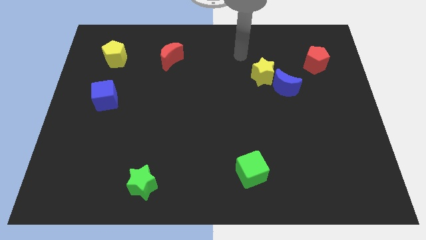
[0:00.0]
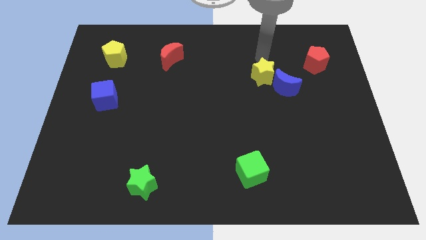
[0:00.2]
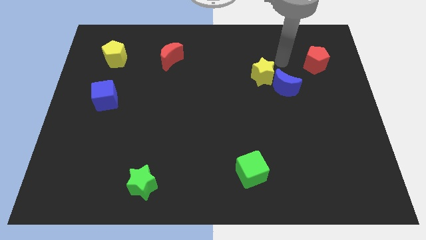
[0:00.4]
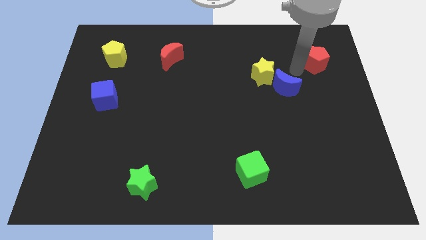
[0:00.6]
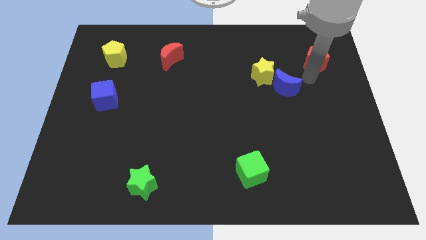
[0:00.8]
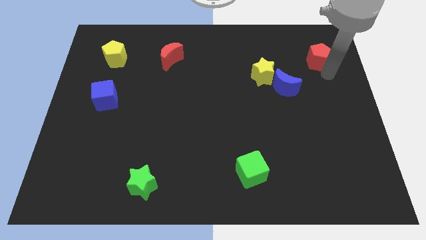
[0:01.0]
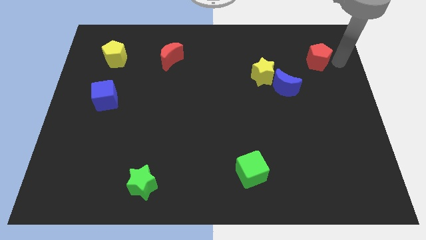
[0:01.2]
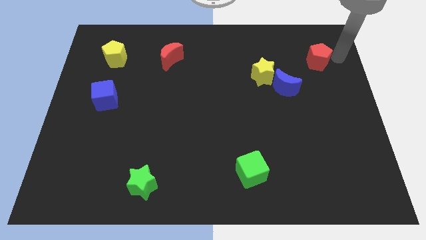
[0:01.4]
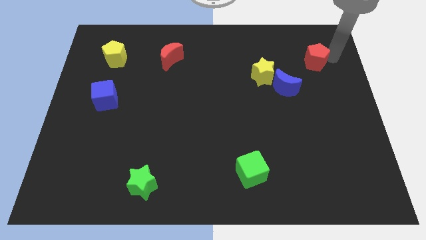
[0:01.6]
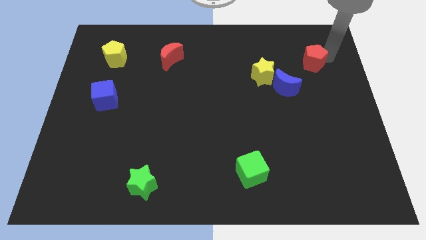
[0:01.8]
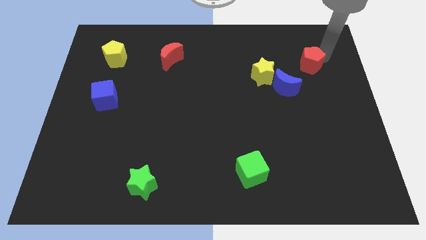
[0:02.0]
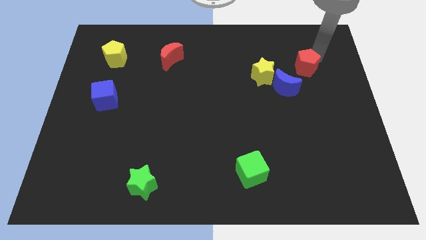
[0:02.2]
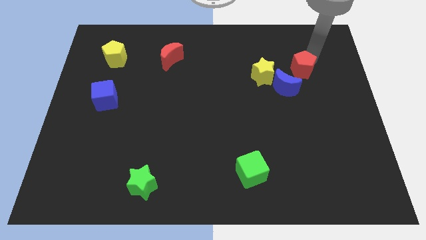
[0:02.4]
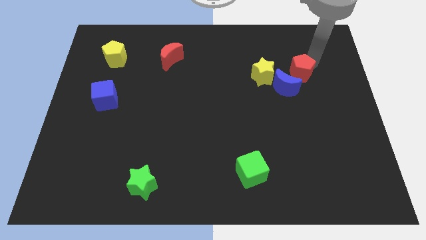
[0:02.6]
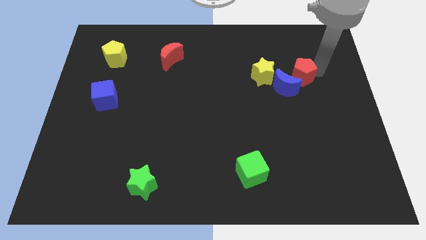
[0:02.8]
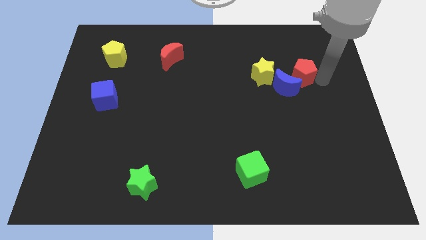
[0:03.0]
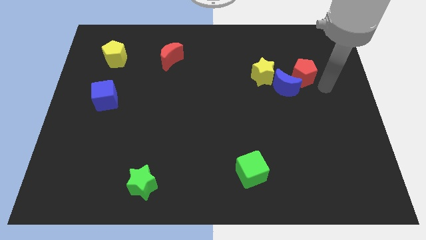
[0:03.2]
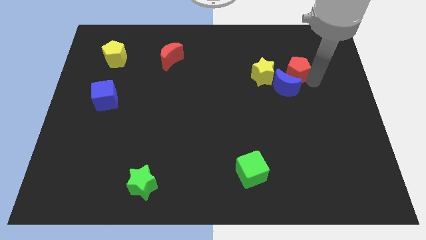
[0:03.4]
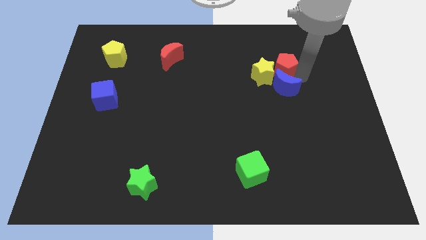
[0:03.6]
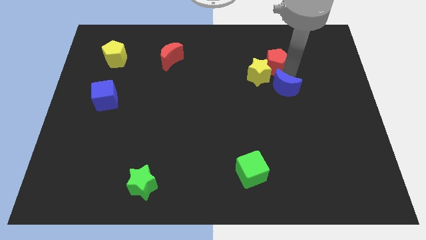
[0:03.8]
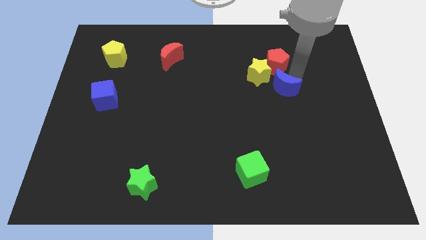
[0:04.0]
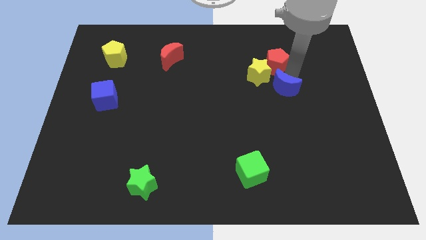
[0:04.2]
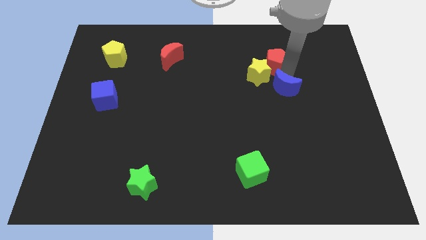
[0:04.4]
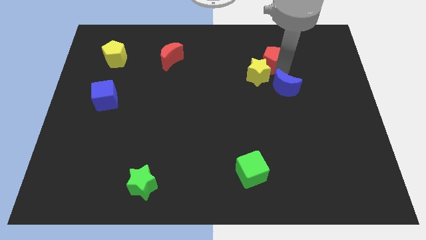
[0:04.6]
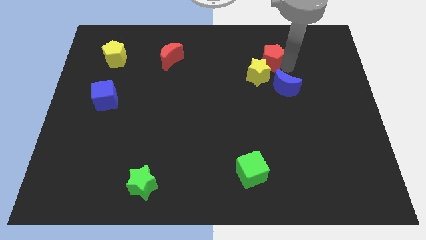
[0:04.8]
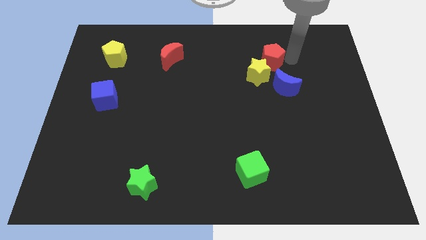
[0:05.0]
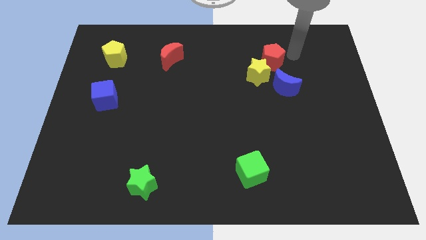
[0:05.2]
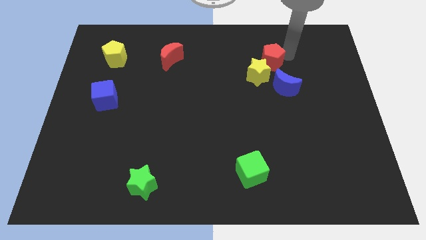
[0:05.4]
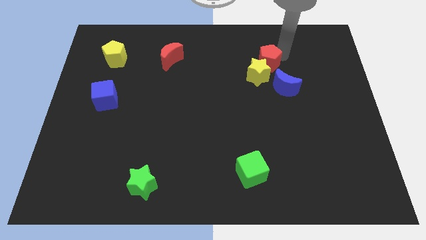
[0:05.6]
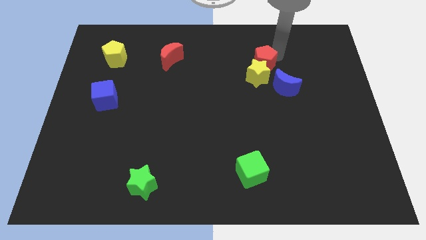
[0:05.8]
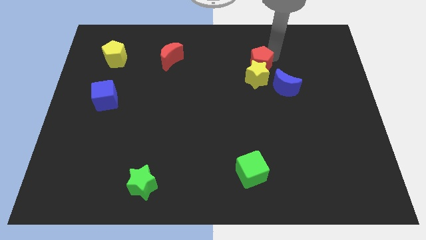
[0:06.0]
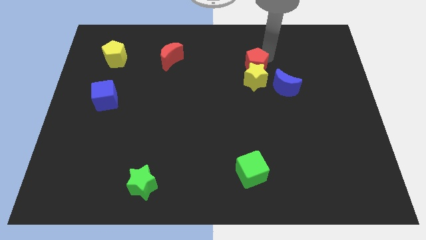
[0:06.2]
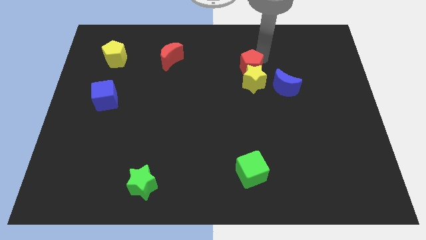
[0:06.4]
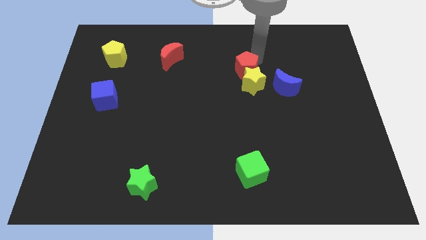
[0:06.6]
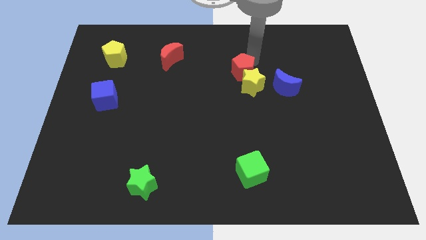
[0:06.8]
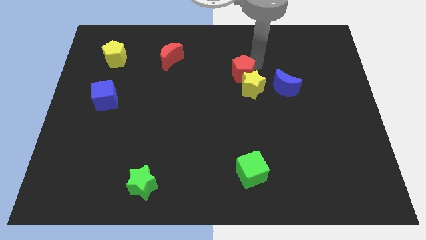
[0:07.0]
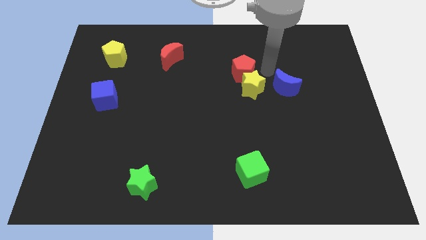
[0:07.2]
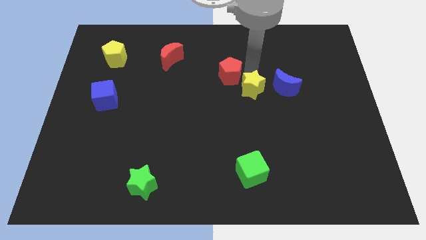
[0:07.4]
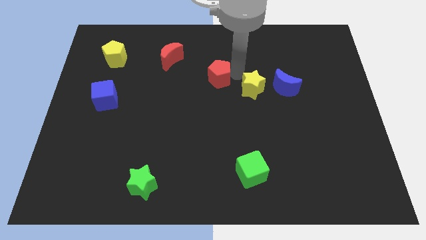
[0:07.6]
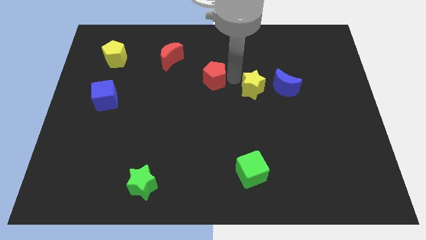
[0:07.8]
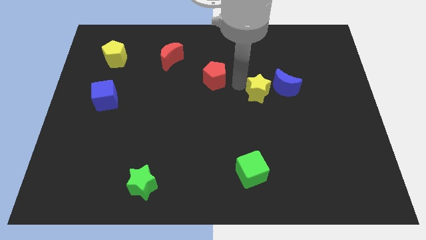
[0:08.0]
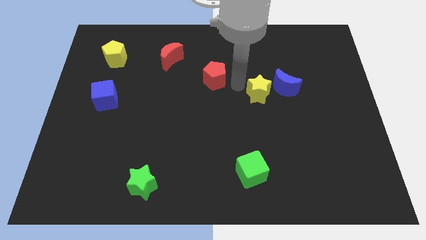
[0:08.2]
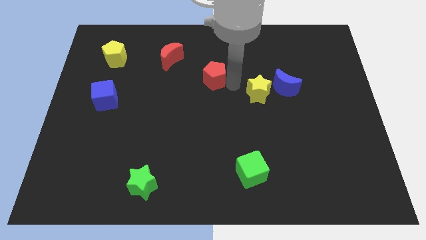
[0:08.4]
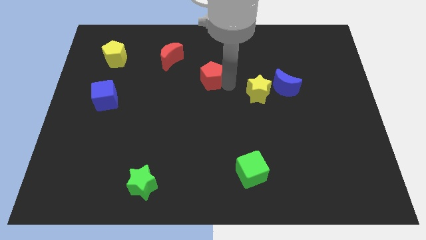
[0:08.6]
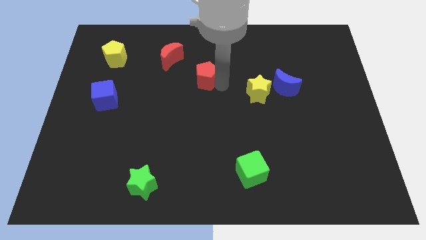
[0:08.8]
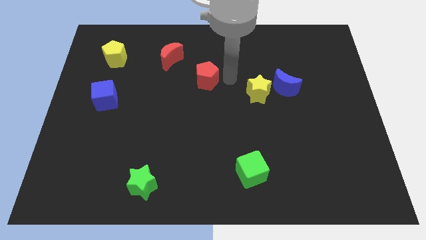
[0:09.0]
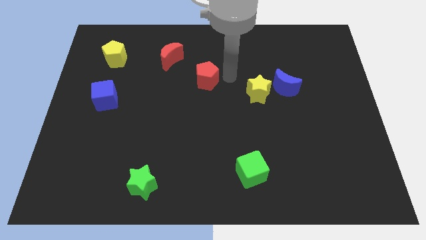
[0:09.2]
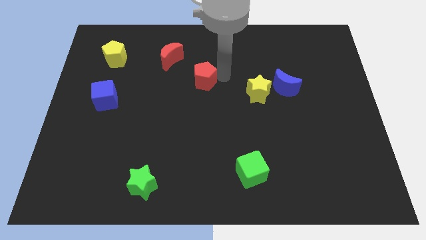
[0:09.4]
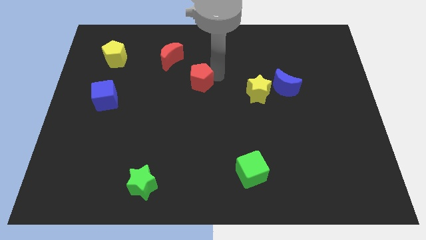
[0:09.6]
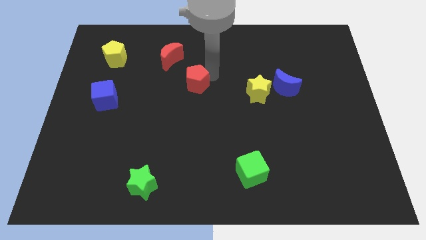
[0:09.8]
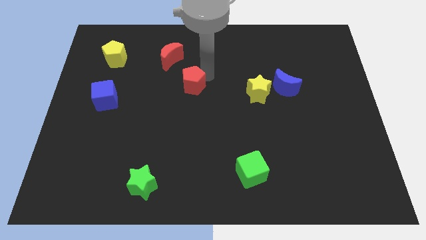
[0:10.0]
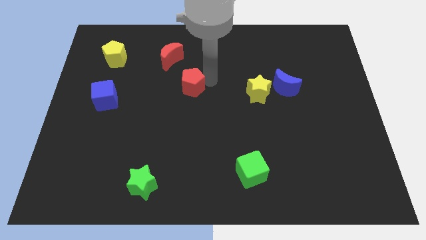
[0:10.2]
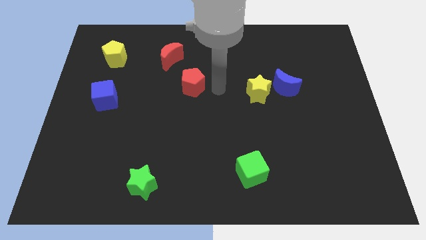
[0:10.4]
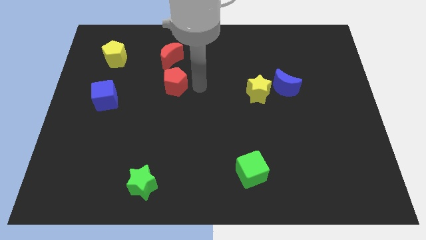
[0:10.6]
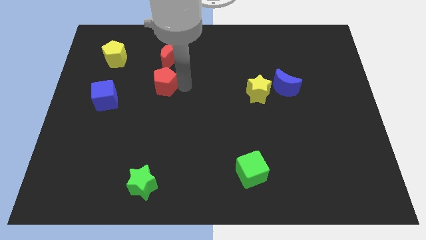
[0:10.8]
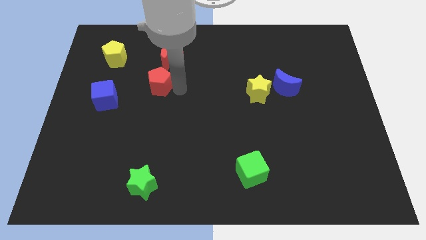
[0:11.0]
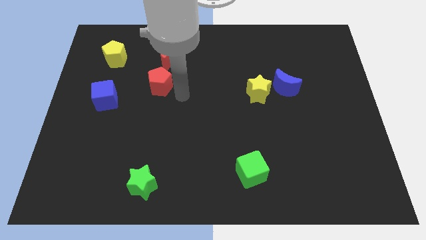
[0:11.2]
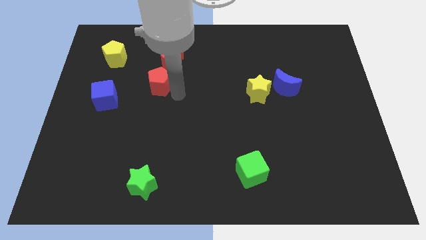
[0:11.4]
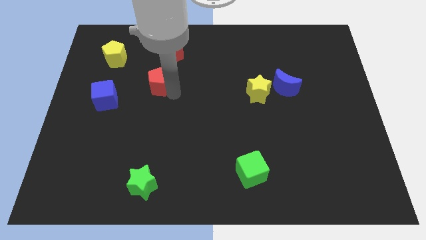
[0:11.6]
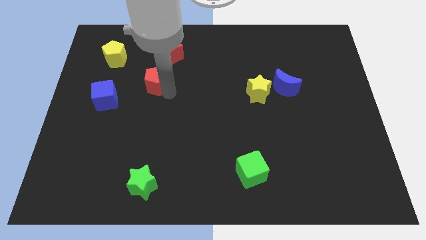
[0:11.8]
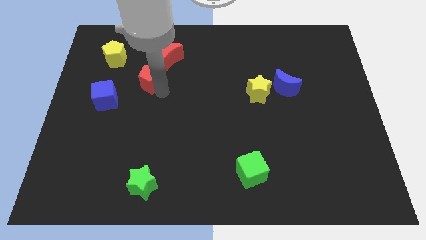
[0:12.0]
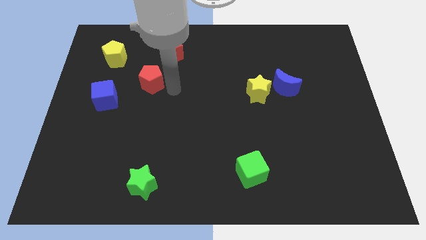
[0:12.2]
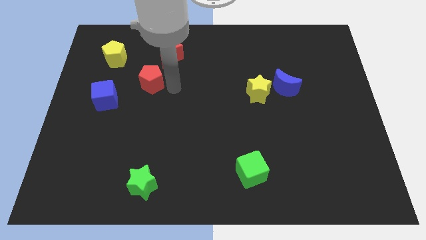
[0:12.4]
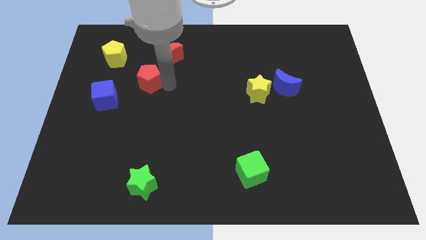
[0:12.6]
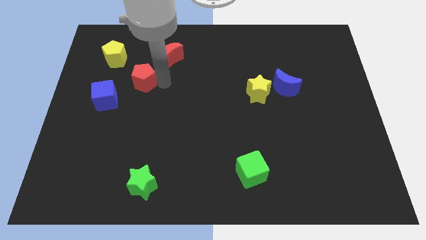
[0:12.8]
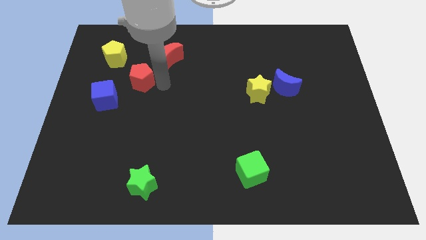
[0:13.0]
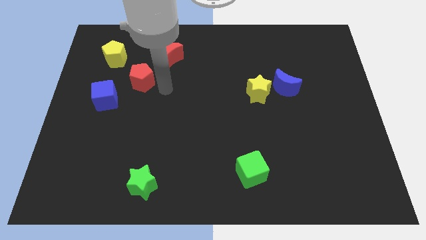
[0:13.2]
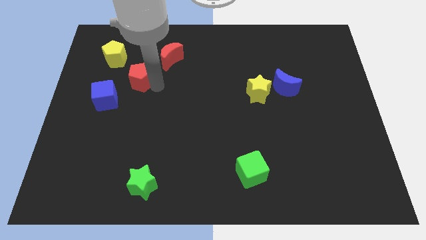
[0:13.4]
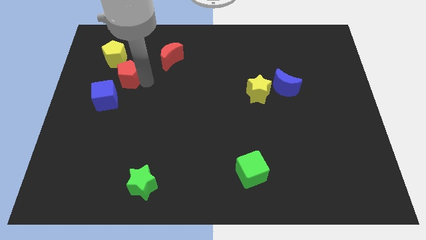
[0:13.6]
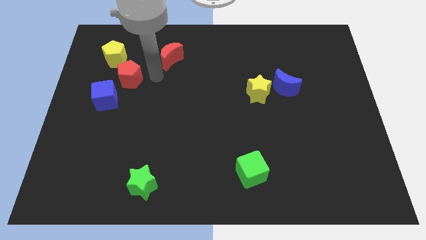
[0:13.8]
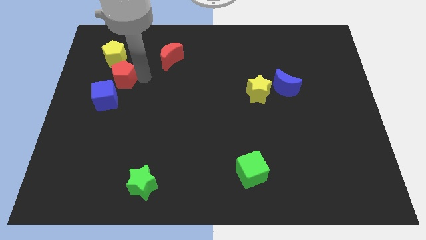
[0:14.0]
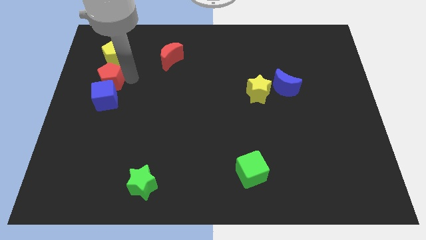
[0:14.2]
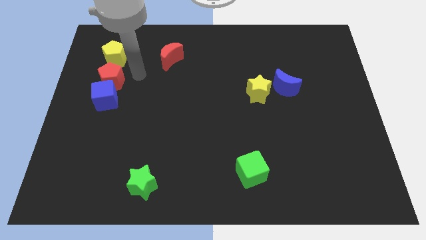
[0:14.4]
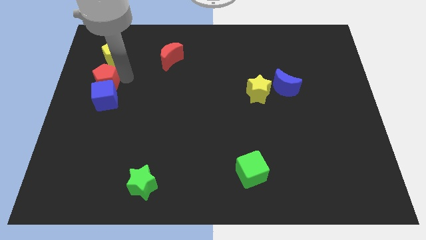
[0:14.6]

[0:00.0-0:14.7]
move the red pentagon to the left side
